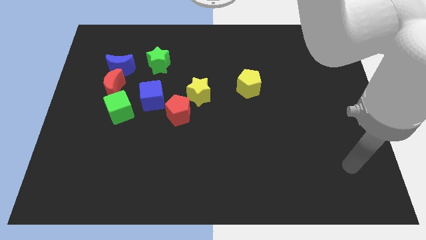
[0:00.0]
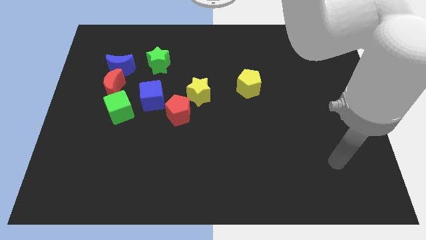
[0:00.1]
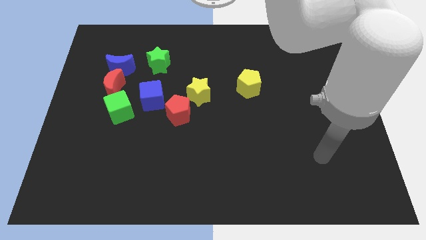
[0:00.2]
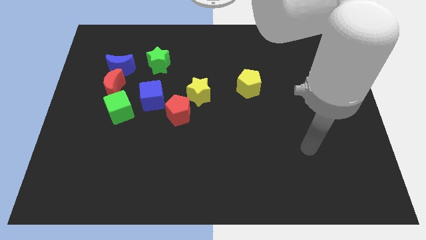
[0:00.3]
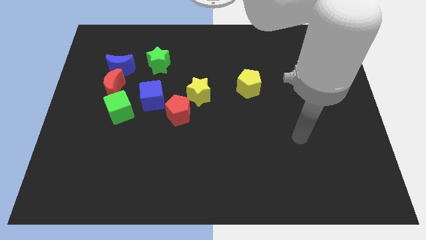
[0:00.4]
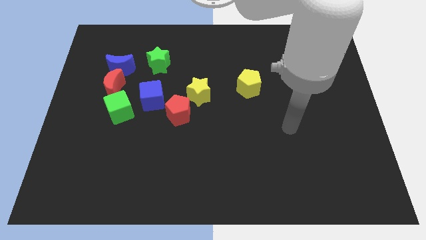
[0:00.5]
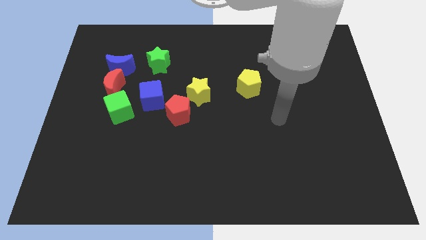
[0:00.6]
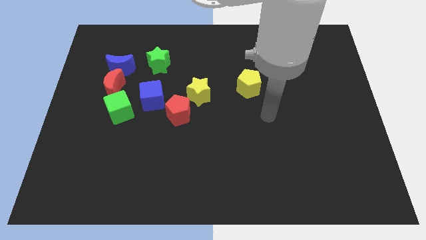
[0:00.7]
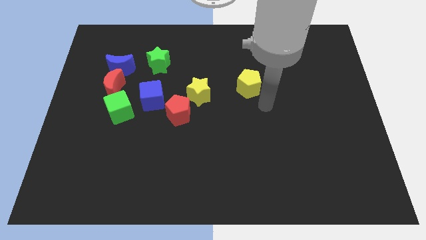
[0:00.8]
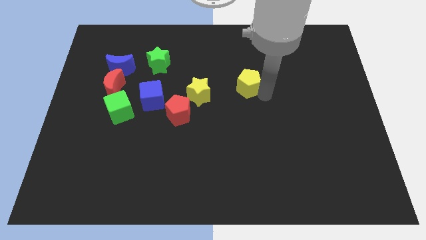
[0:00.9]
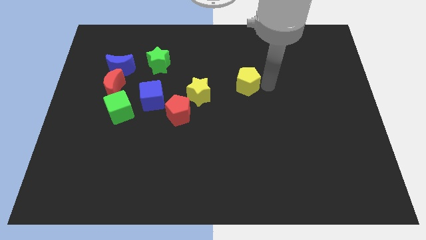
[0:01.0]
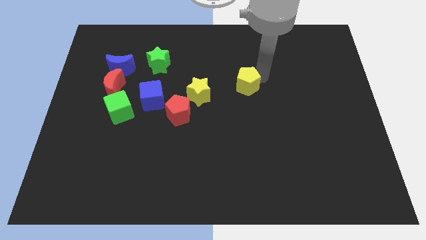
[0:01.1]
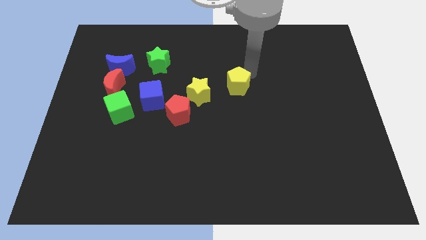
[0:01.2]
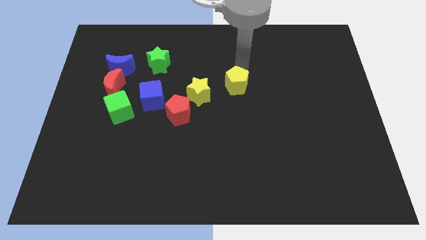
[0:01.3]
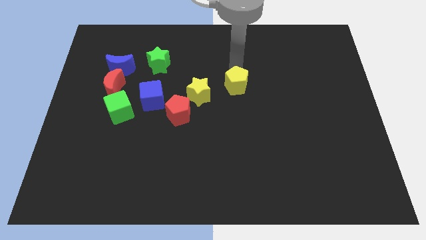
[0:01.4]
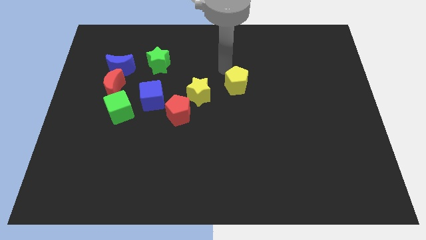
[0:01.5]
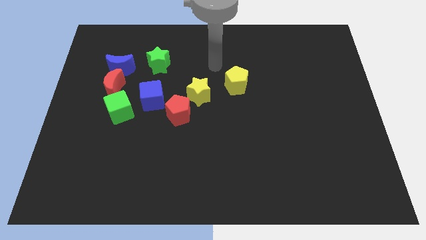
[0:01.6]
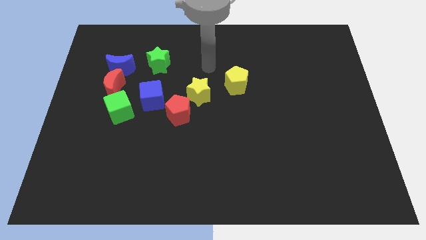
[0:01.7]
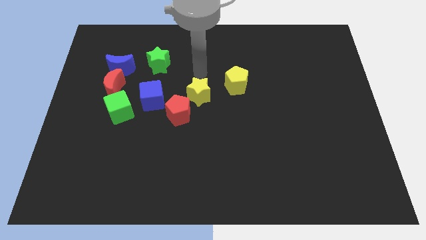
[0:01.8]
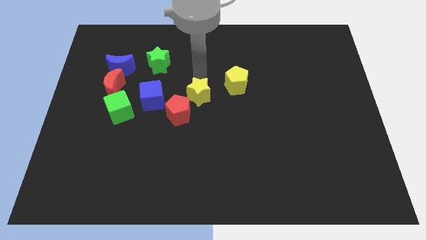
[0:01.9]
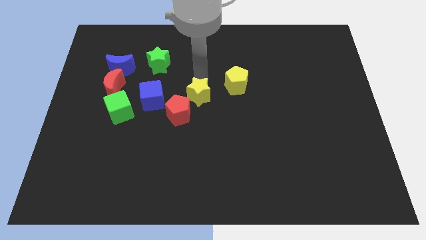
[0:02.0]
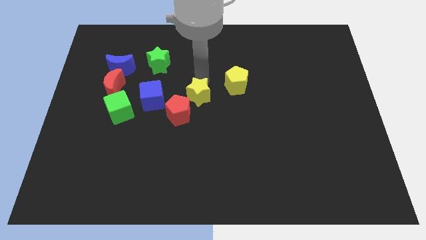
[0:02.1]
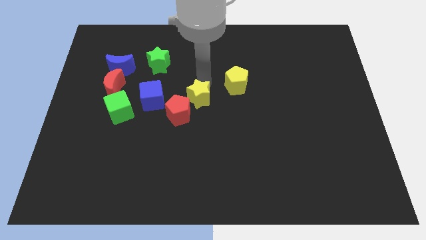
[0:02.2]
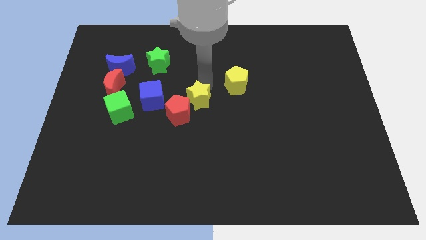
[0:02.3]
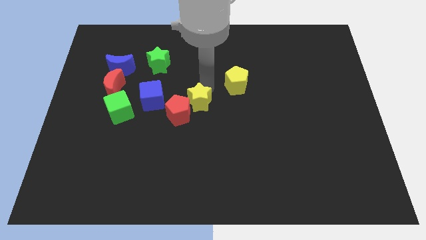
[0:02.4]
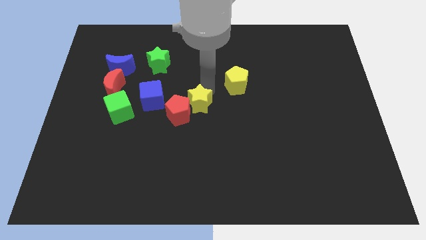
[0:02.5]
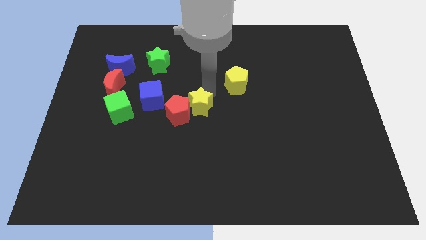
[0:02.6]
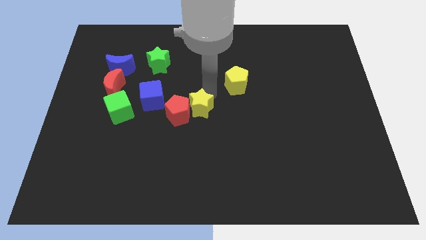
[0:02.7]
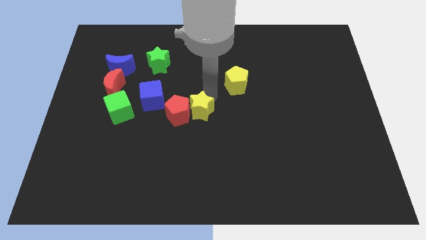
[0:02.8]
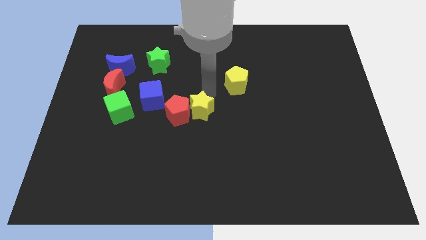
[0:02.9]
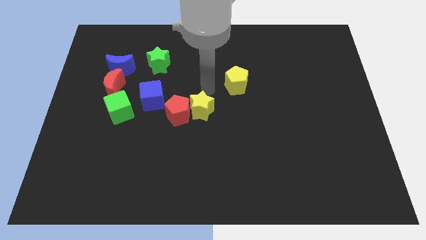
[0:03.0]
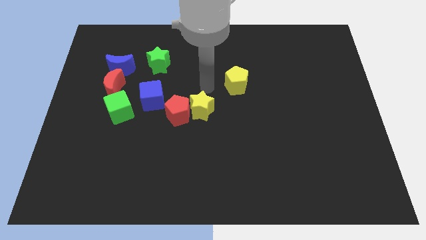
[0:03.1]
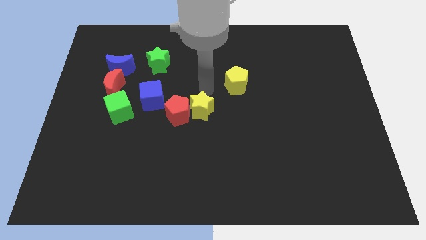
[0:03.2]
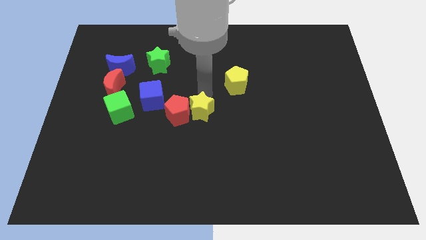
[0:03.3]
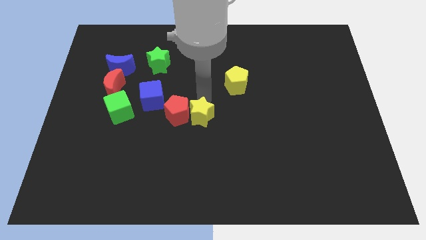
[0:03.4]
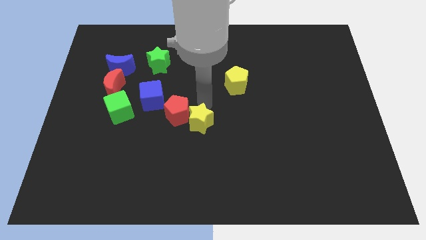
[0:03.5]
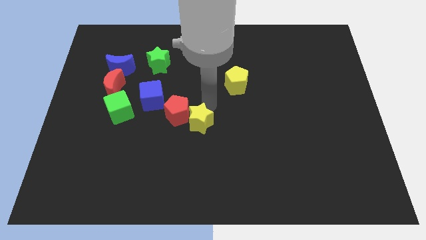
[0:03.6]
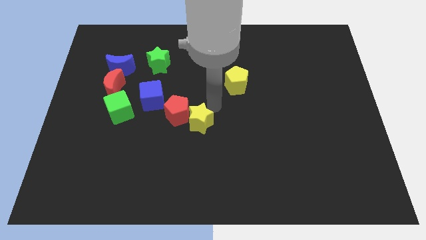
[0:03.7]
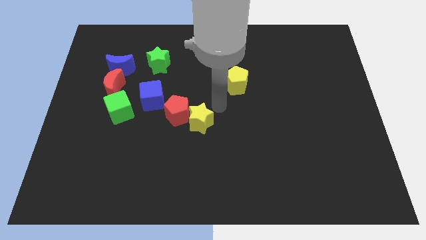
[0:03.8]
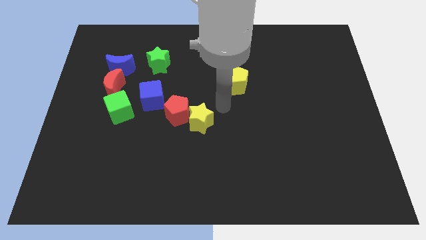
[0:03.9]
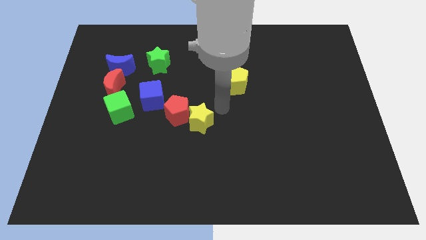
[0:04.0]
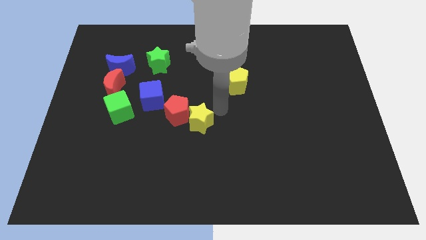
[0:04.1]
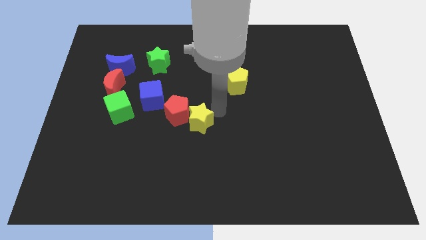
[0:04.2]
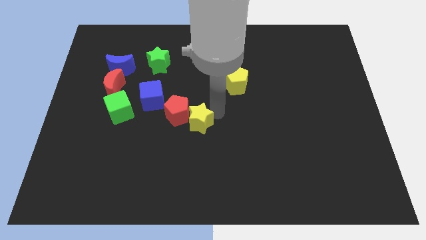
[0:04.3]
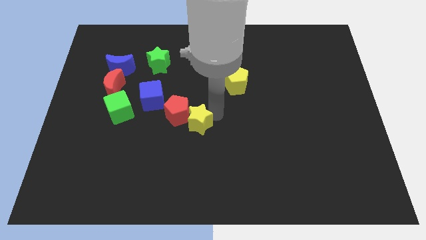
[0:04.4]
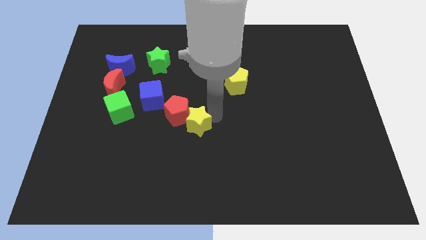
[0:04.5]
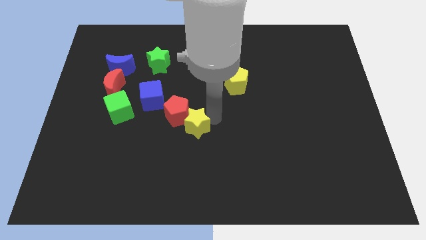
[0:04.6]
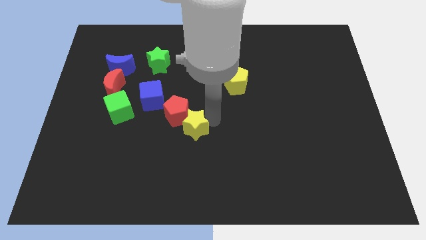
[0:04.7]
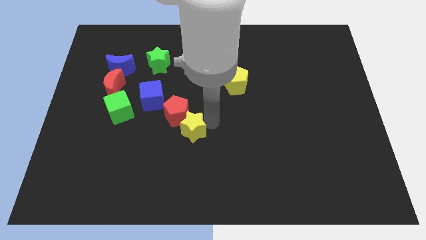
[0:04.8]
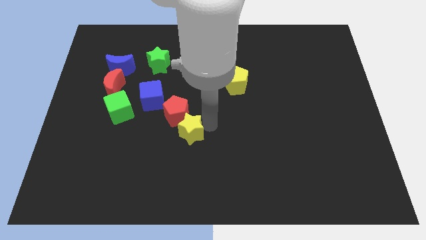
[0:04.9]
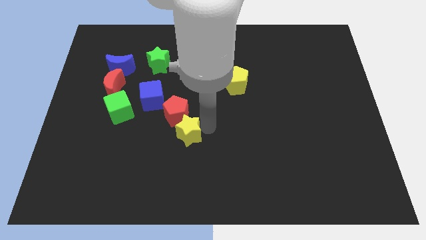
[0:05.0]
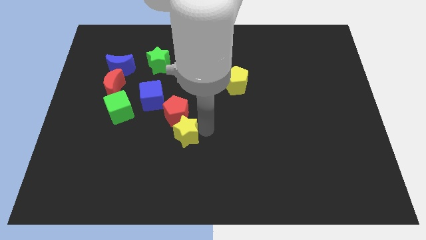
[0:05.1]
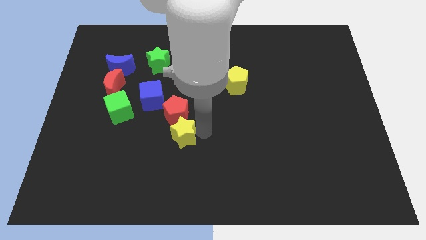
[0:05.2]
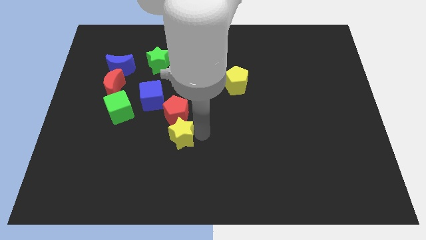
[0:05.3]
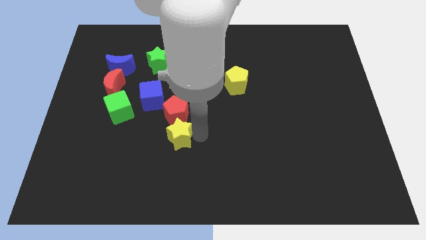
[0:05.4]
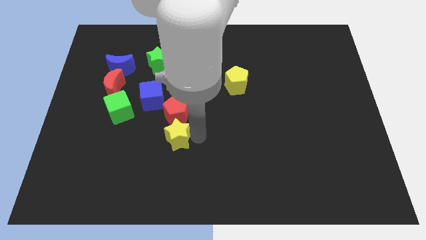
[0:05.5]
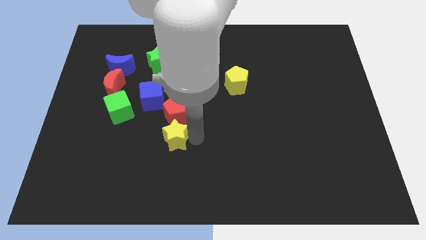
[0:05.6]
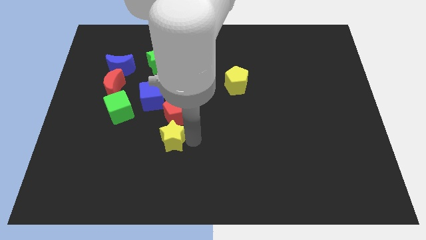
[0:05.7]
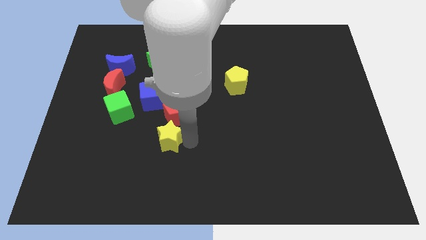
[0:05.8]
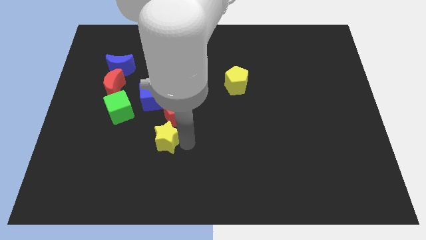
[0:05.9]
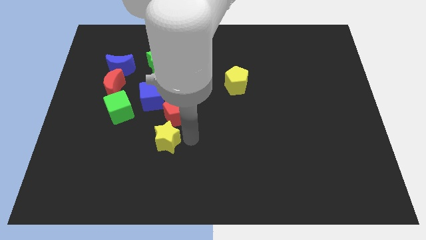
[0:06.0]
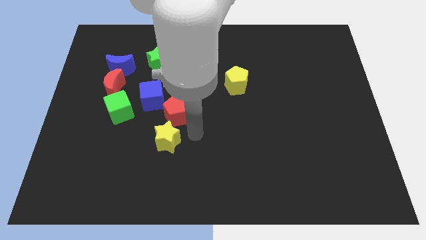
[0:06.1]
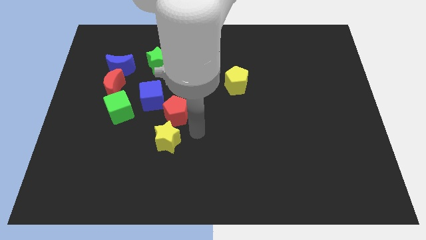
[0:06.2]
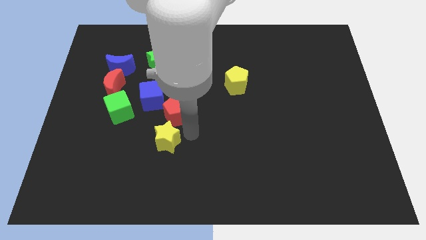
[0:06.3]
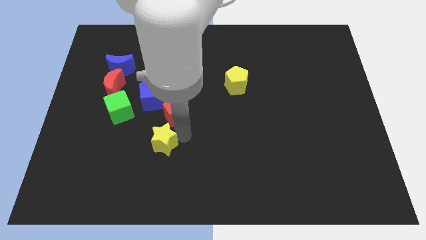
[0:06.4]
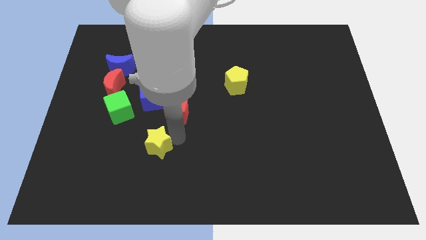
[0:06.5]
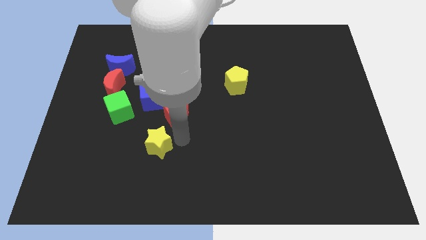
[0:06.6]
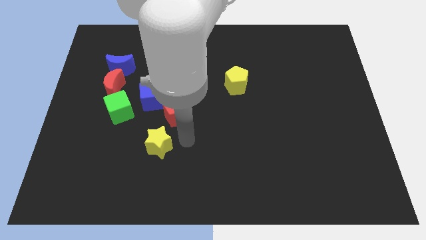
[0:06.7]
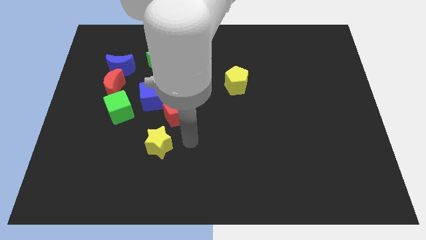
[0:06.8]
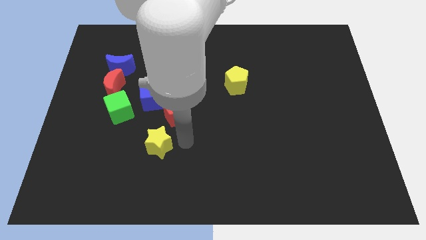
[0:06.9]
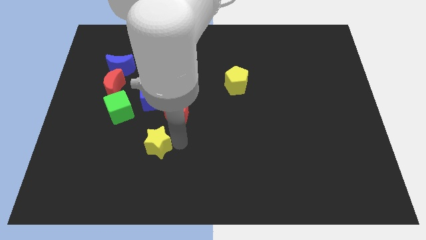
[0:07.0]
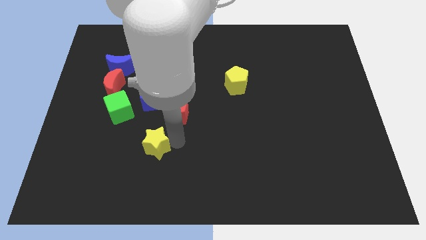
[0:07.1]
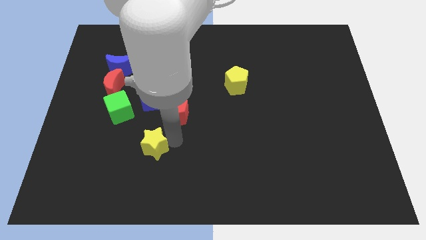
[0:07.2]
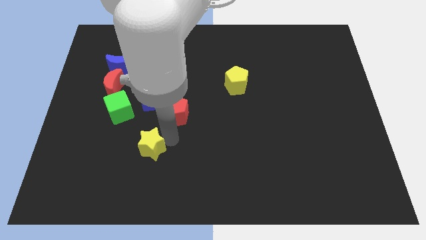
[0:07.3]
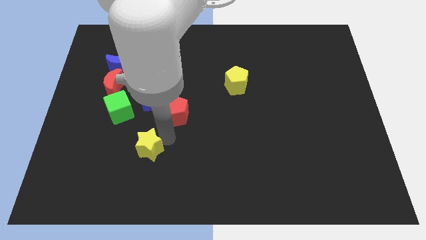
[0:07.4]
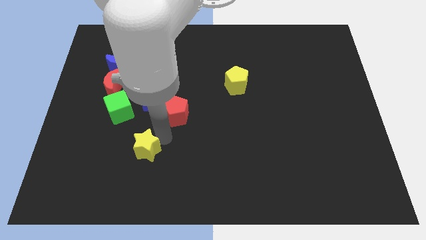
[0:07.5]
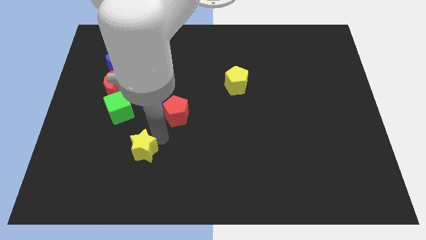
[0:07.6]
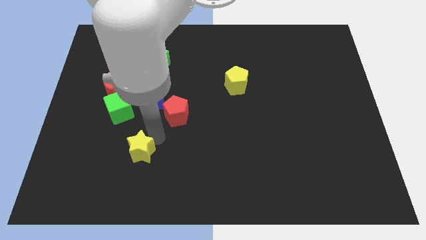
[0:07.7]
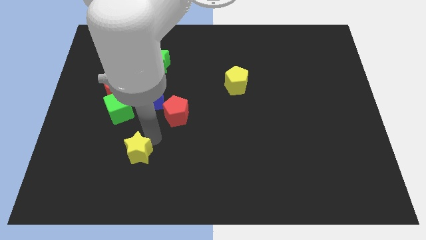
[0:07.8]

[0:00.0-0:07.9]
slide the yellow star down and then to the left

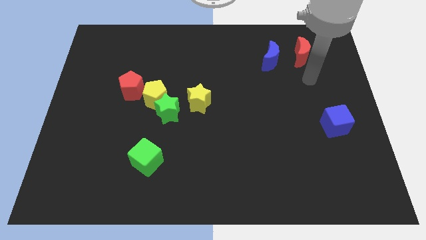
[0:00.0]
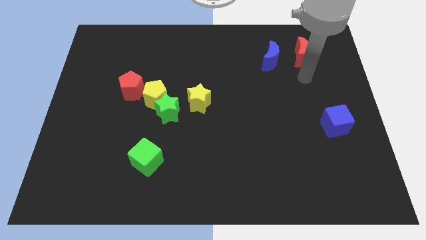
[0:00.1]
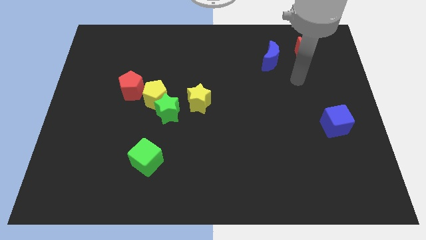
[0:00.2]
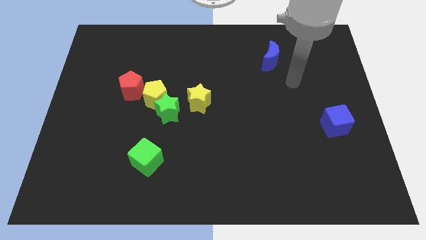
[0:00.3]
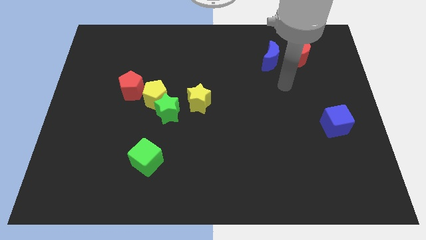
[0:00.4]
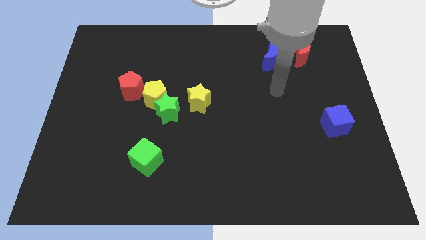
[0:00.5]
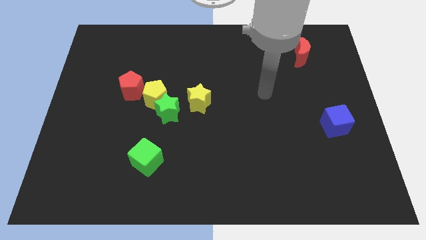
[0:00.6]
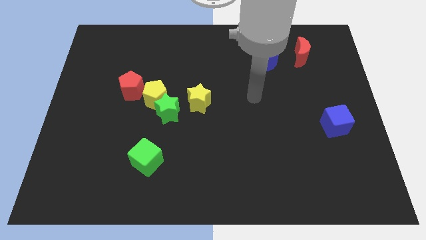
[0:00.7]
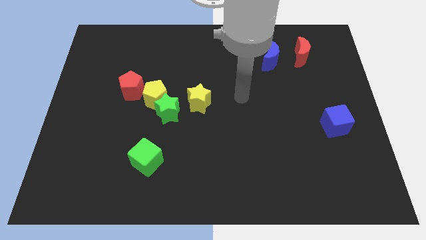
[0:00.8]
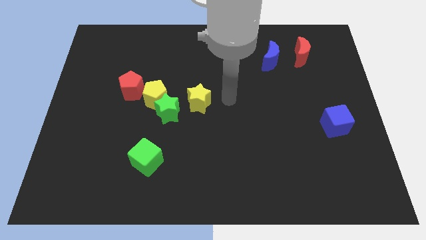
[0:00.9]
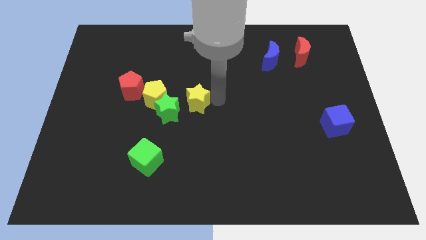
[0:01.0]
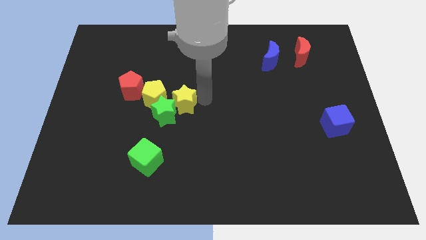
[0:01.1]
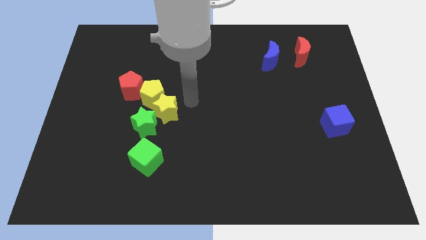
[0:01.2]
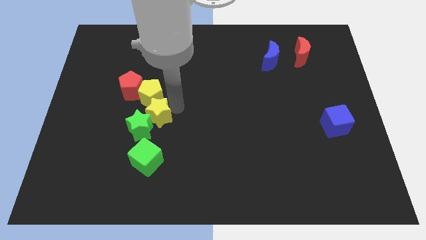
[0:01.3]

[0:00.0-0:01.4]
move the green star a little downwards and left diagonally
